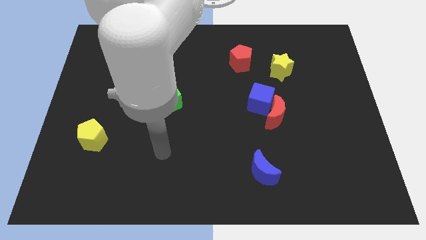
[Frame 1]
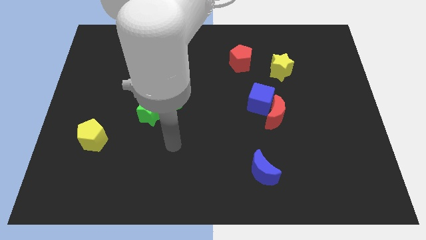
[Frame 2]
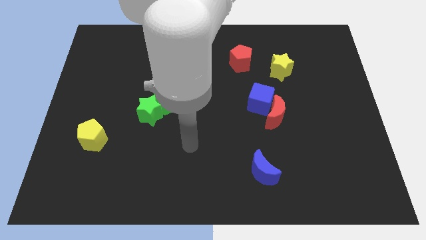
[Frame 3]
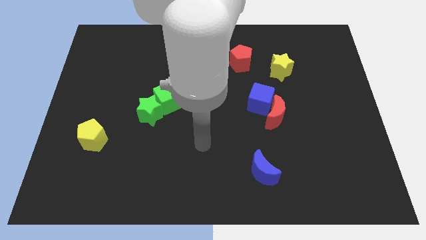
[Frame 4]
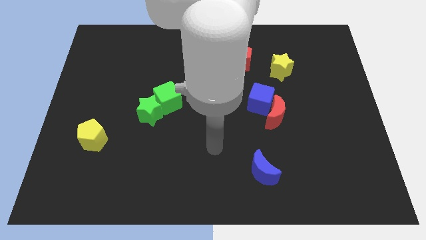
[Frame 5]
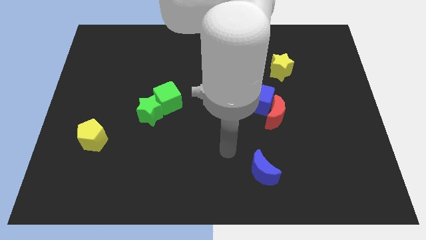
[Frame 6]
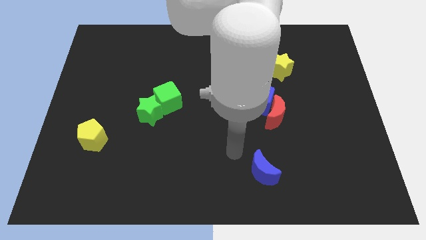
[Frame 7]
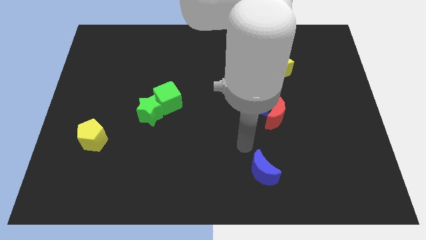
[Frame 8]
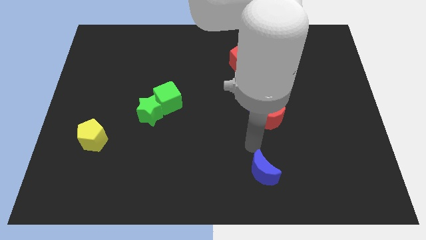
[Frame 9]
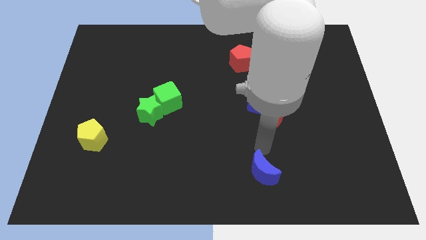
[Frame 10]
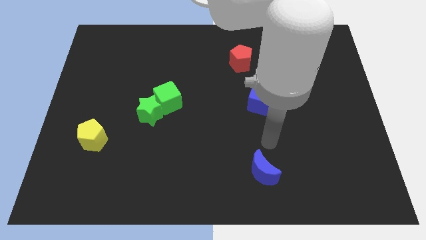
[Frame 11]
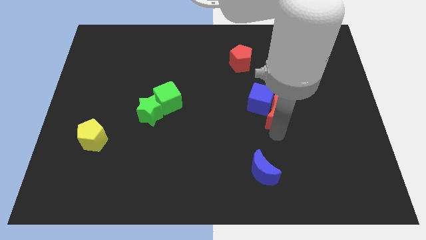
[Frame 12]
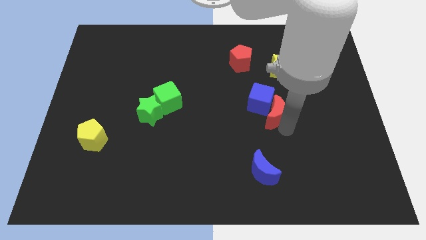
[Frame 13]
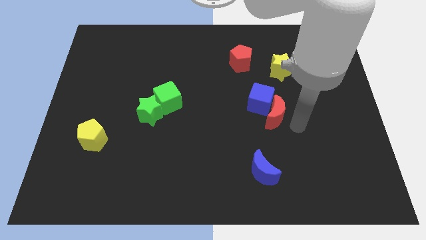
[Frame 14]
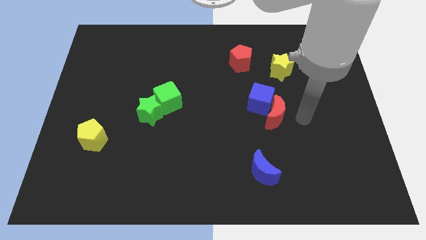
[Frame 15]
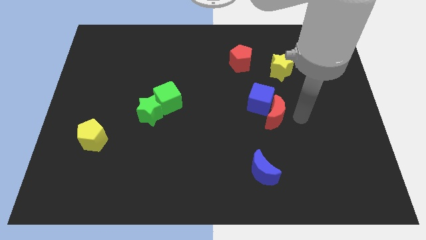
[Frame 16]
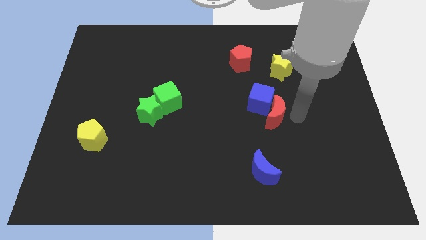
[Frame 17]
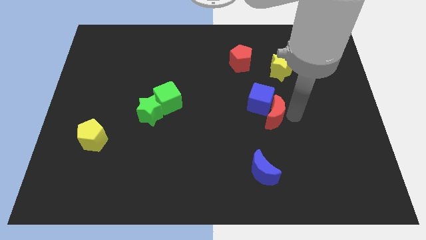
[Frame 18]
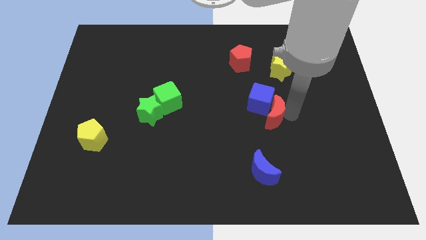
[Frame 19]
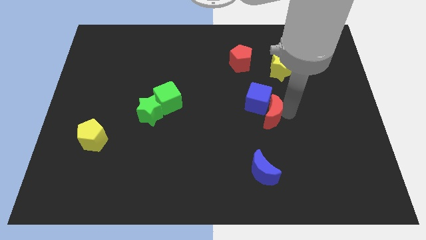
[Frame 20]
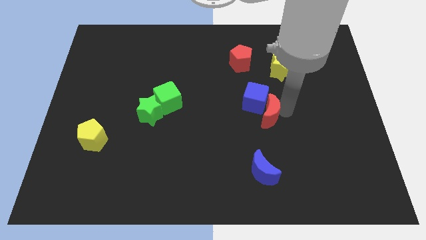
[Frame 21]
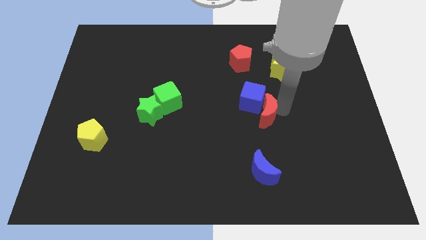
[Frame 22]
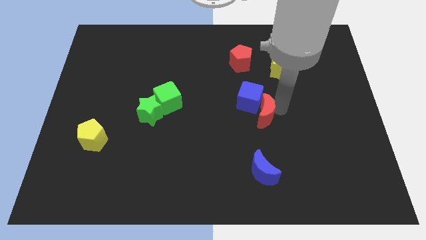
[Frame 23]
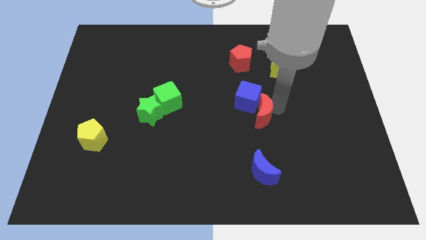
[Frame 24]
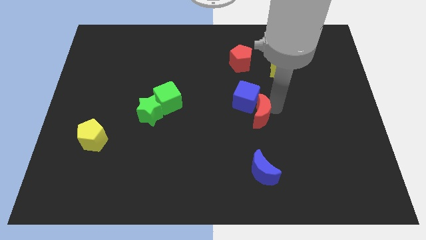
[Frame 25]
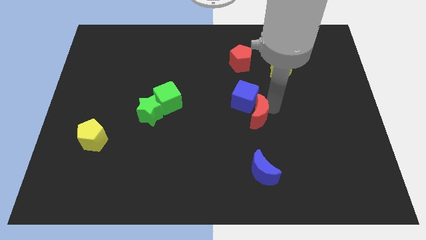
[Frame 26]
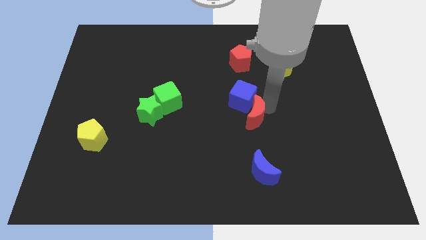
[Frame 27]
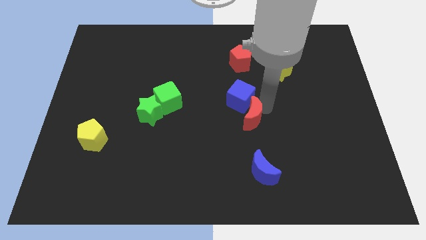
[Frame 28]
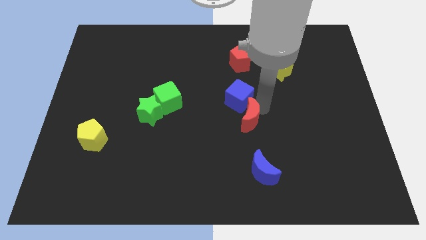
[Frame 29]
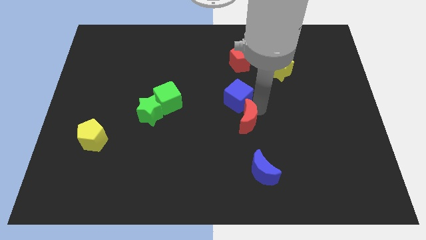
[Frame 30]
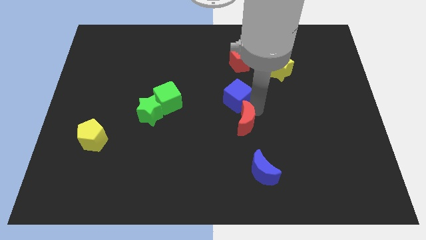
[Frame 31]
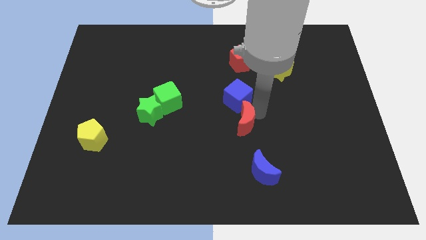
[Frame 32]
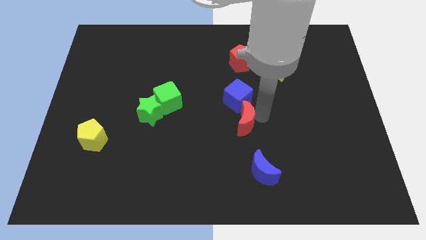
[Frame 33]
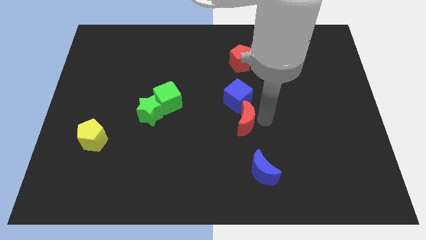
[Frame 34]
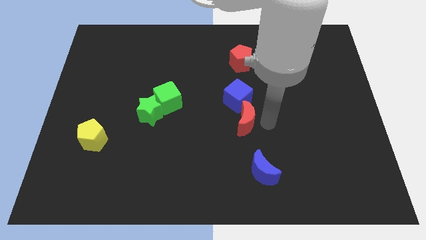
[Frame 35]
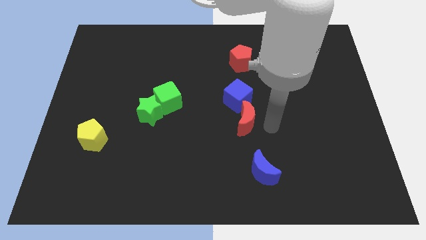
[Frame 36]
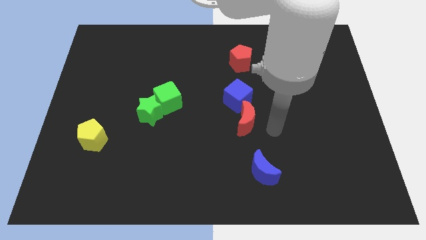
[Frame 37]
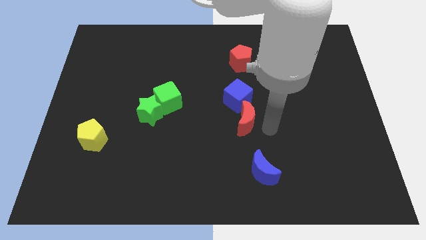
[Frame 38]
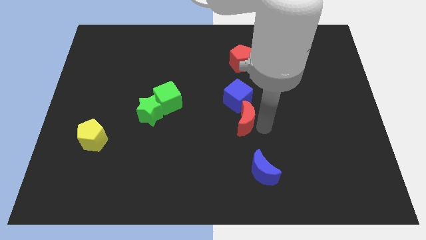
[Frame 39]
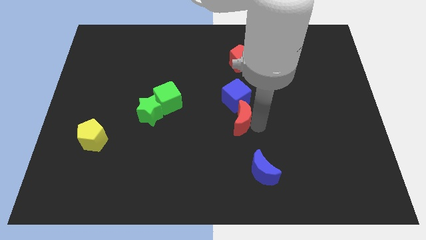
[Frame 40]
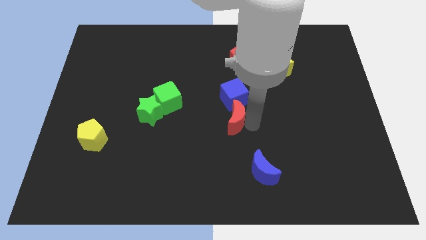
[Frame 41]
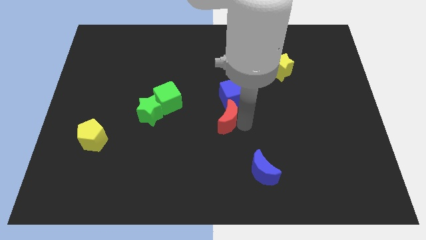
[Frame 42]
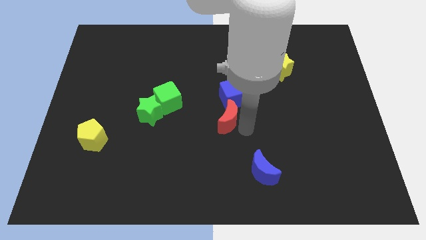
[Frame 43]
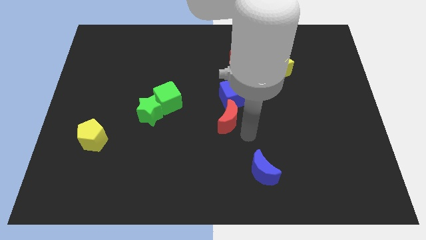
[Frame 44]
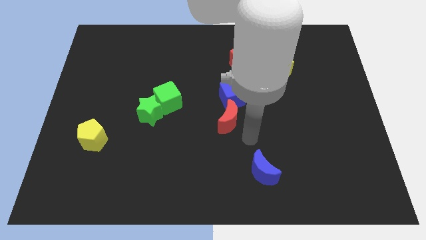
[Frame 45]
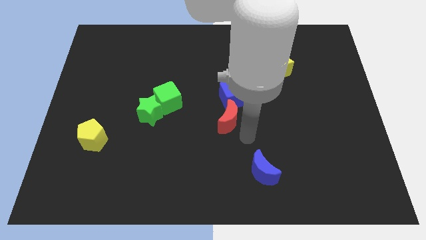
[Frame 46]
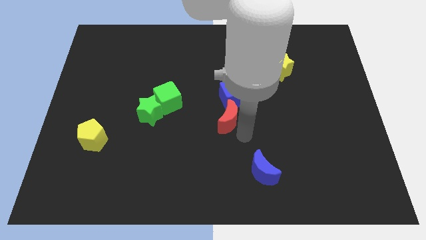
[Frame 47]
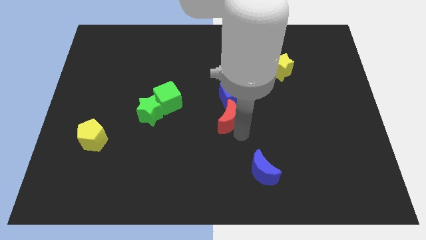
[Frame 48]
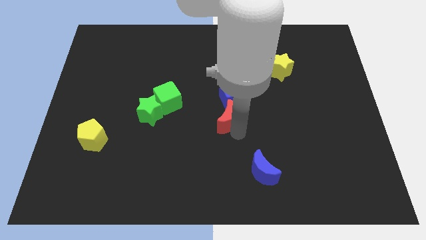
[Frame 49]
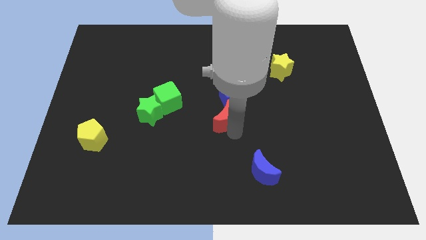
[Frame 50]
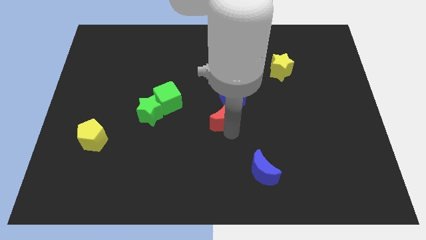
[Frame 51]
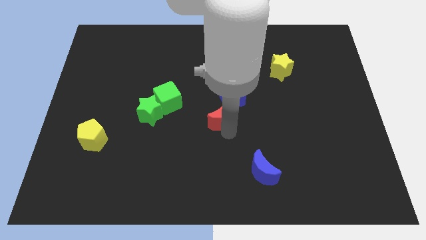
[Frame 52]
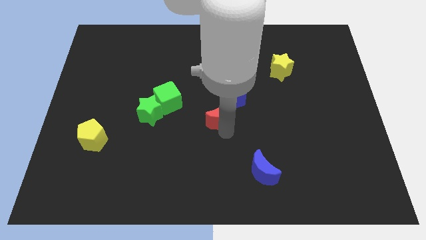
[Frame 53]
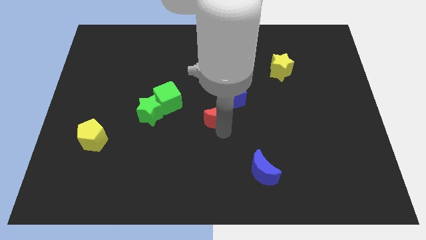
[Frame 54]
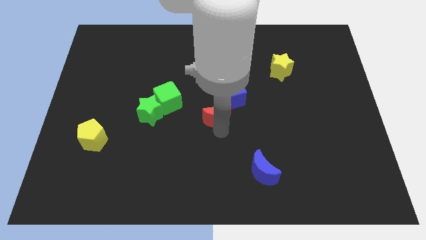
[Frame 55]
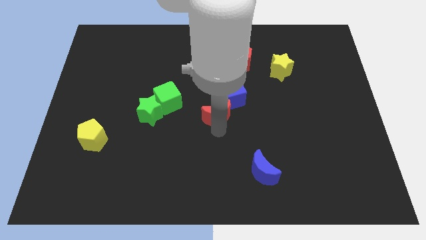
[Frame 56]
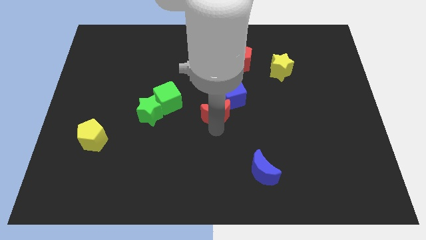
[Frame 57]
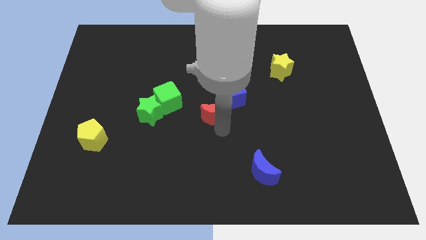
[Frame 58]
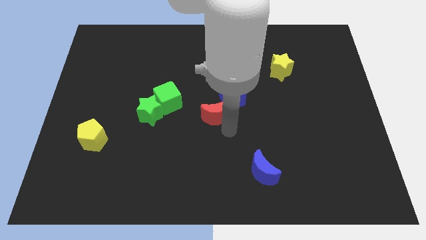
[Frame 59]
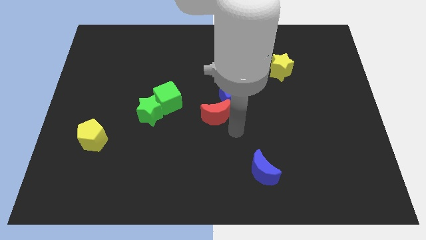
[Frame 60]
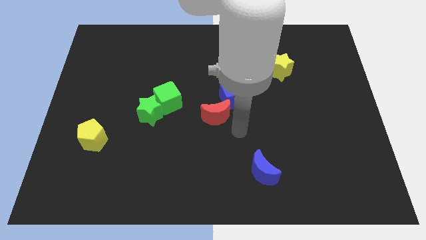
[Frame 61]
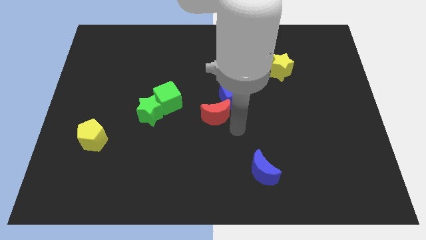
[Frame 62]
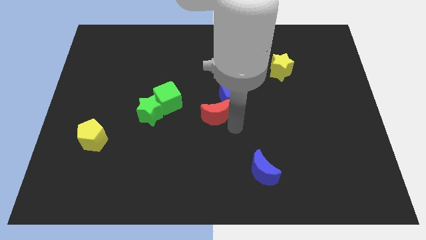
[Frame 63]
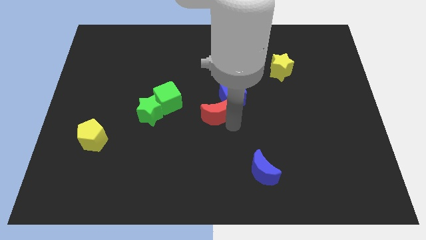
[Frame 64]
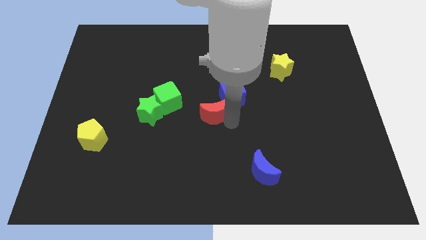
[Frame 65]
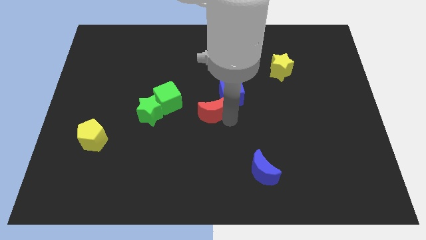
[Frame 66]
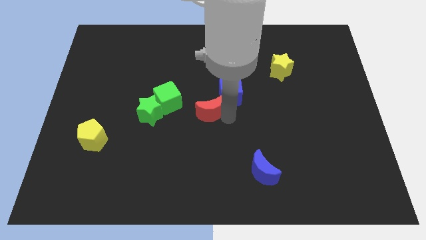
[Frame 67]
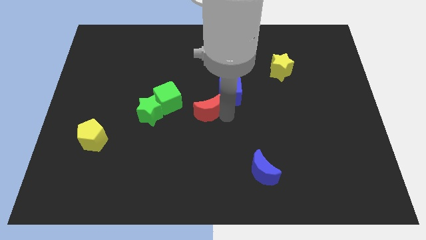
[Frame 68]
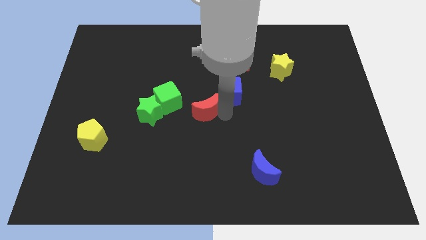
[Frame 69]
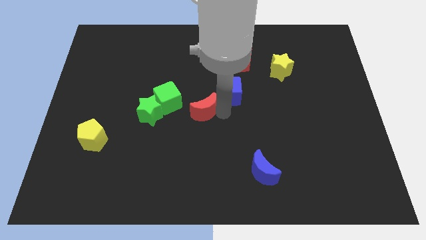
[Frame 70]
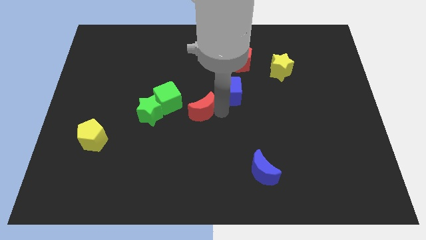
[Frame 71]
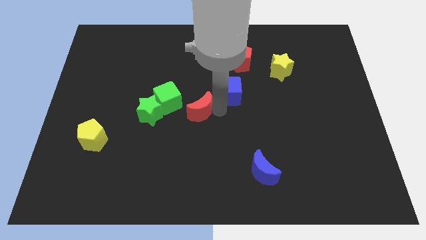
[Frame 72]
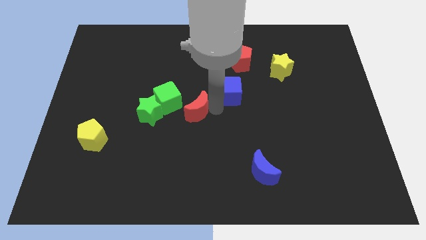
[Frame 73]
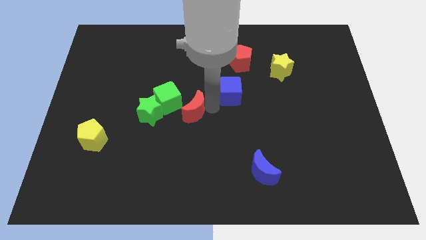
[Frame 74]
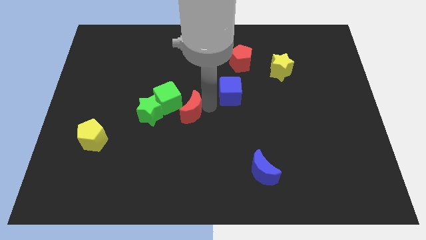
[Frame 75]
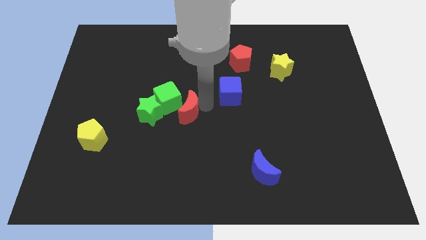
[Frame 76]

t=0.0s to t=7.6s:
push the red moon close to the green cube
